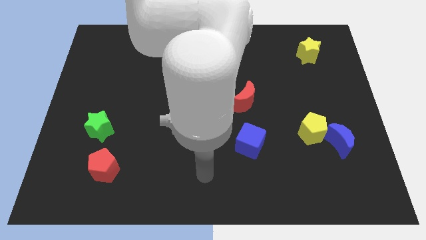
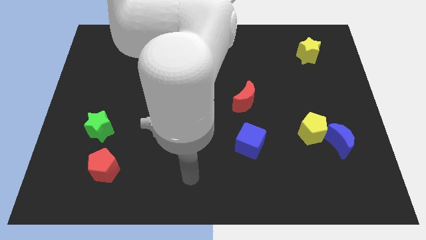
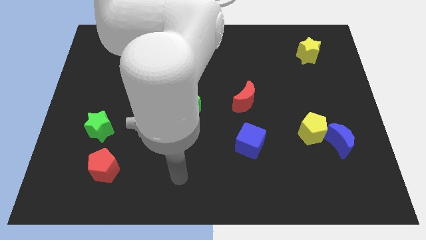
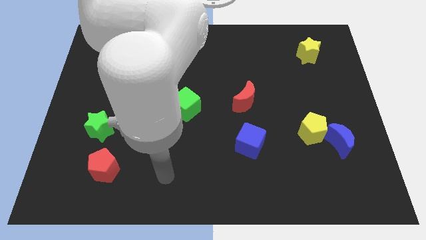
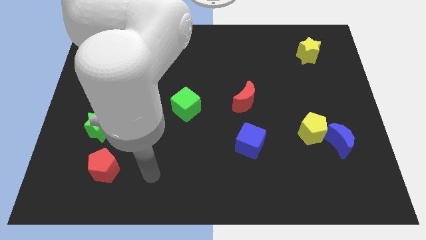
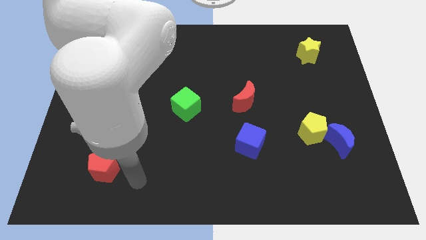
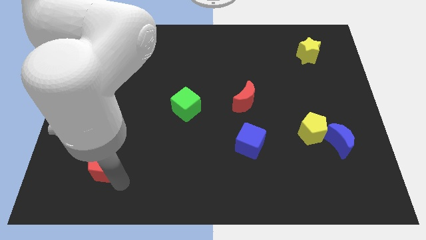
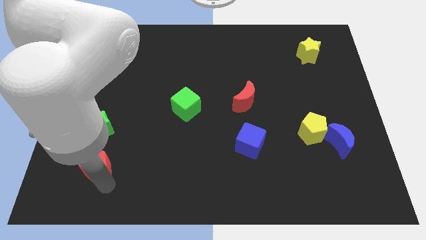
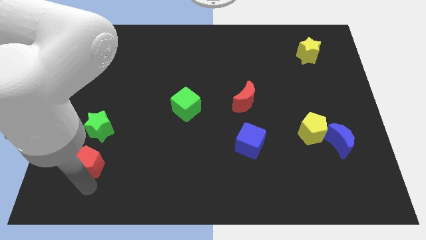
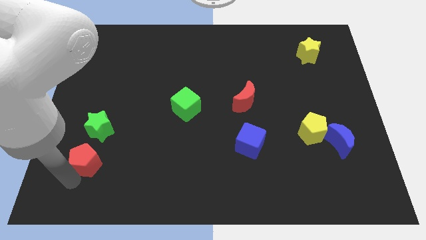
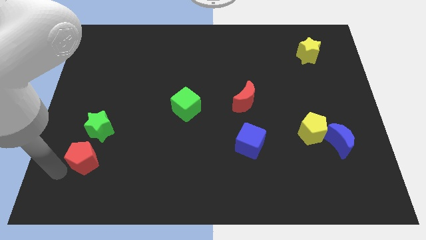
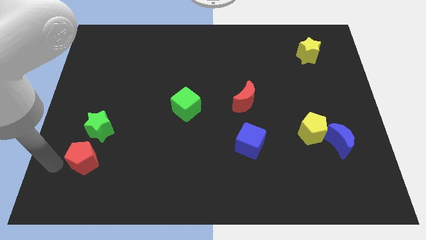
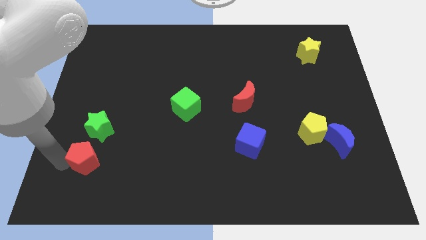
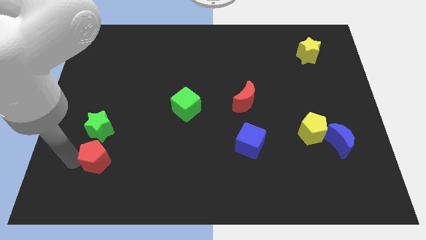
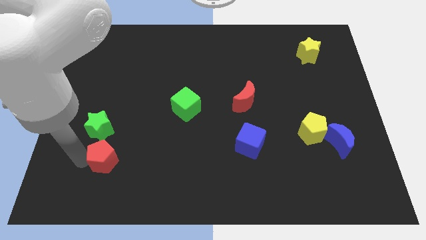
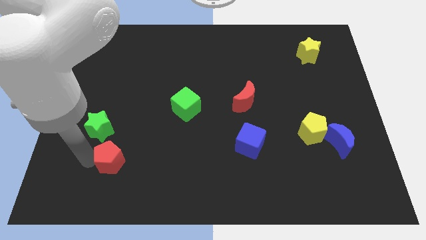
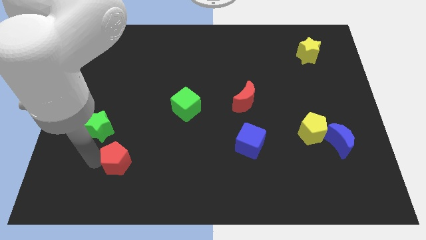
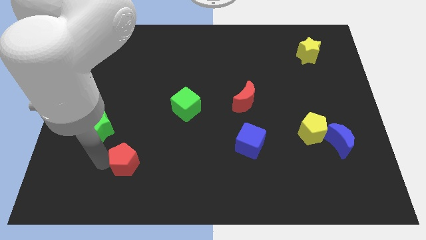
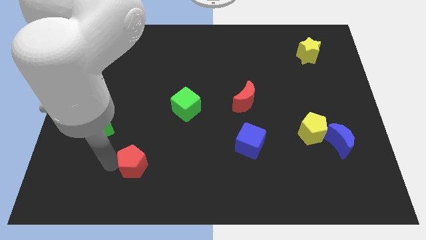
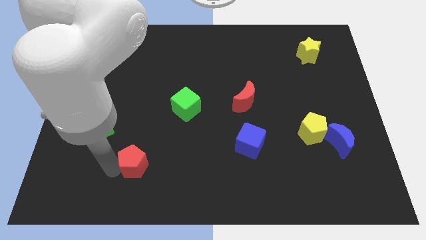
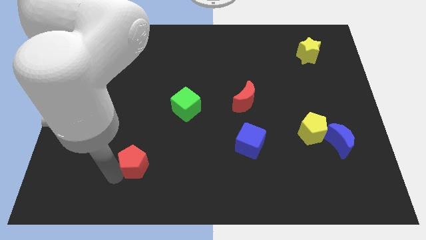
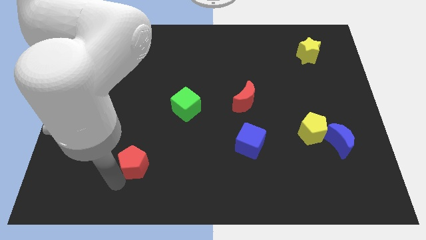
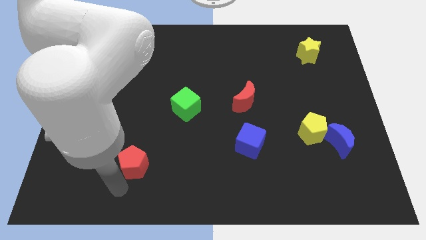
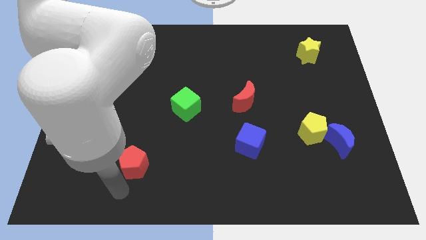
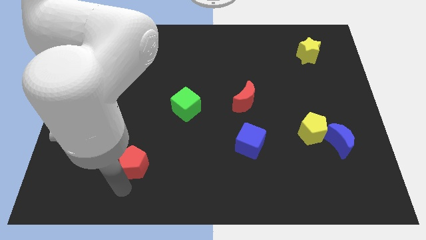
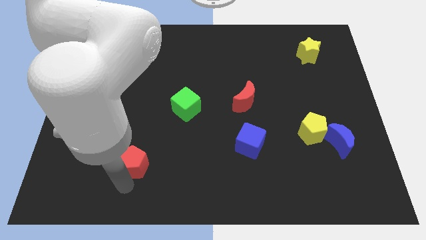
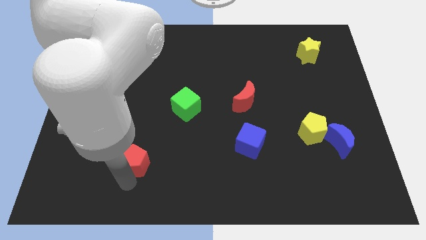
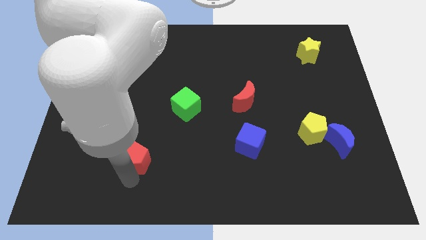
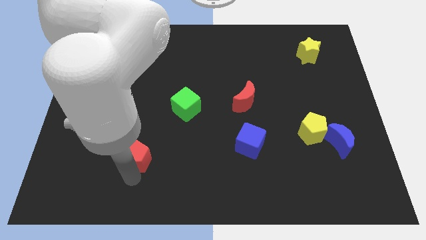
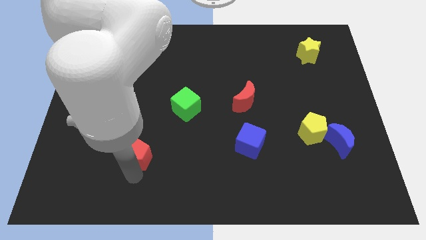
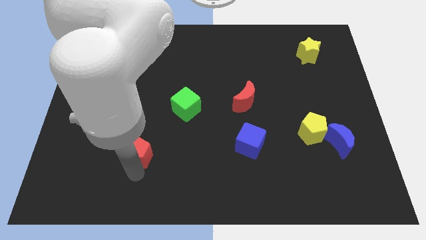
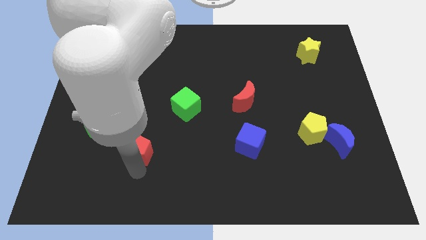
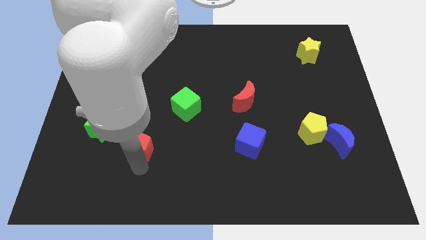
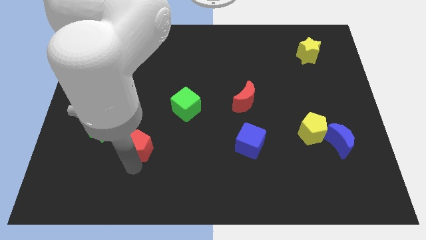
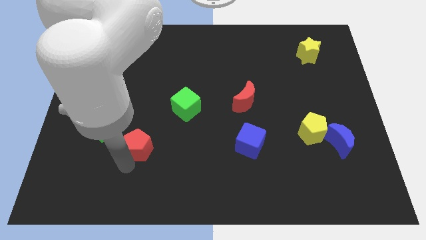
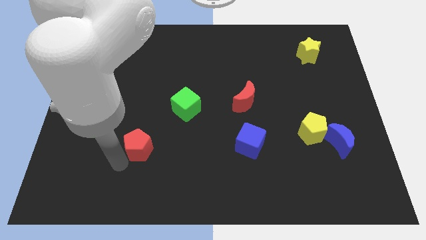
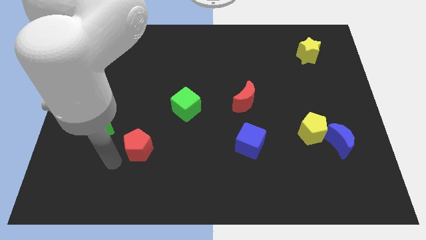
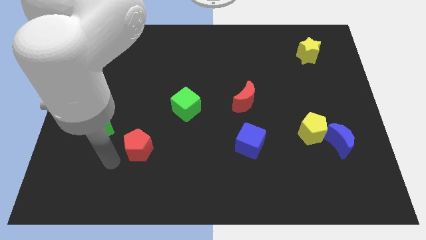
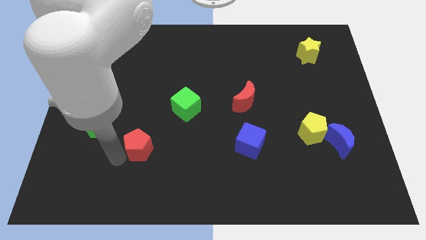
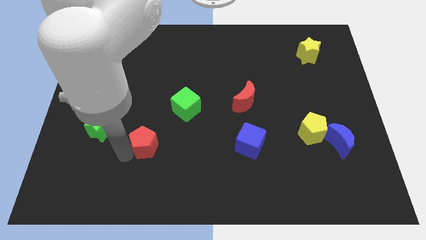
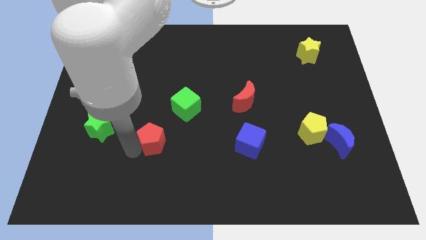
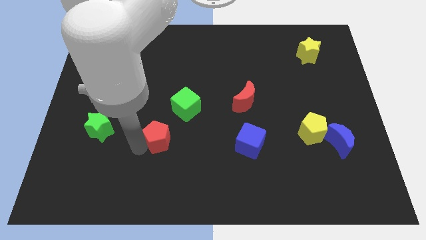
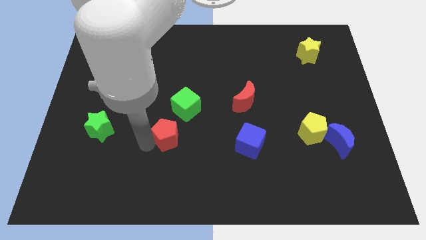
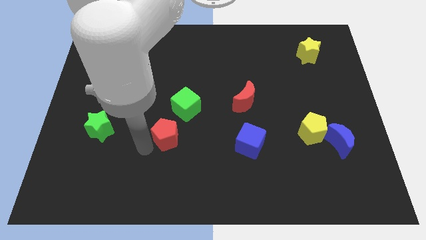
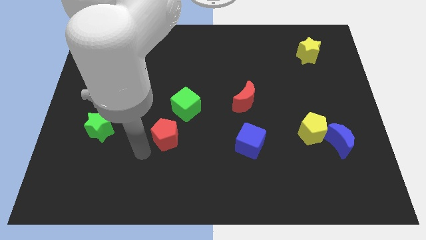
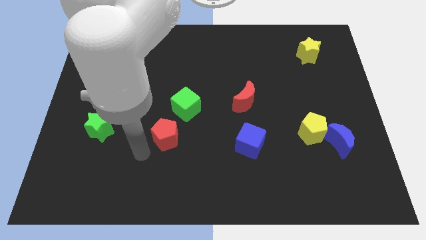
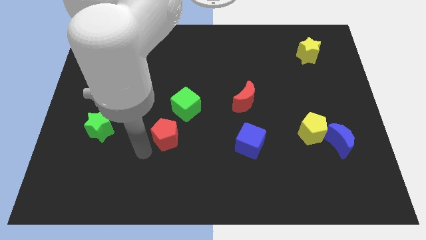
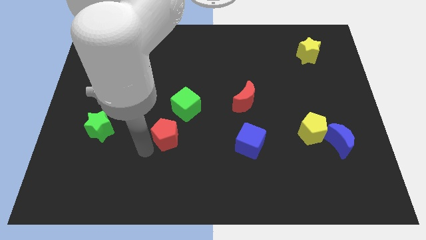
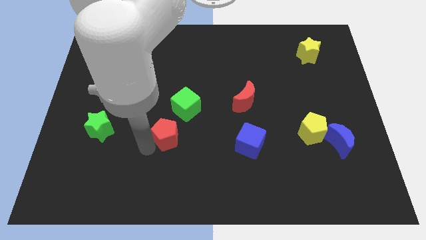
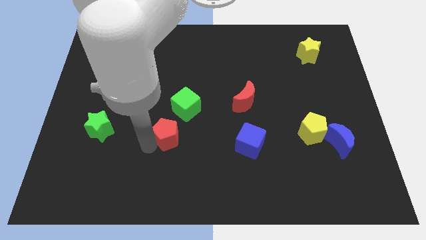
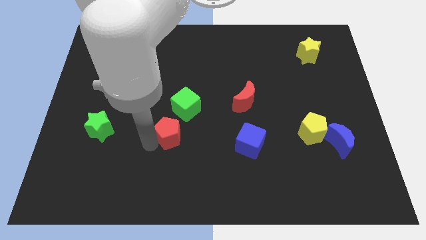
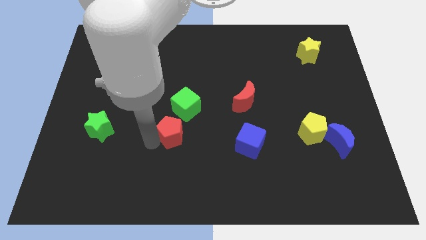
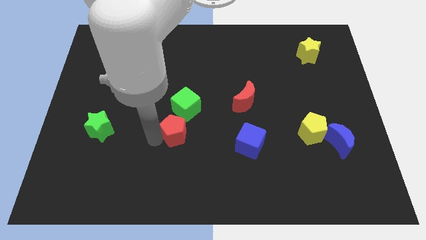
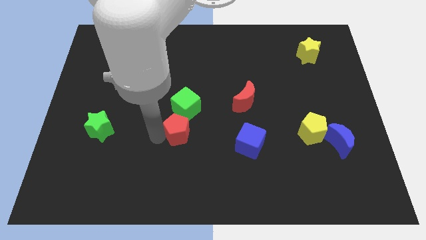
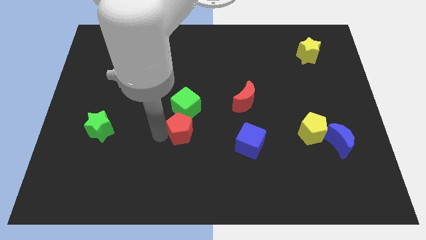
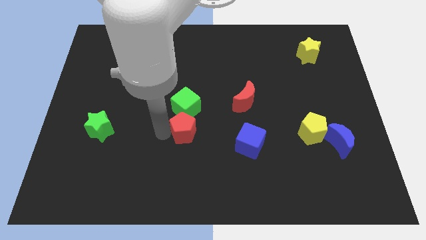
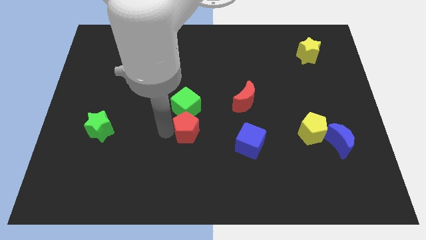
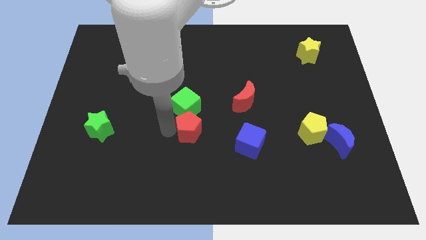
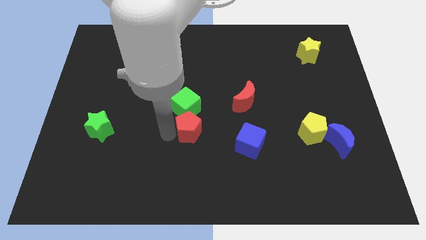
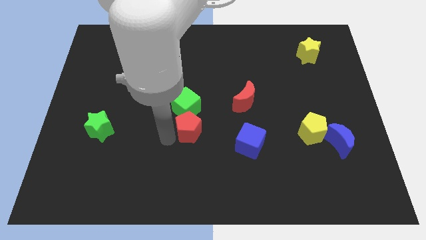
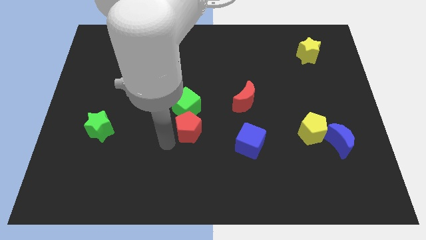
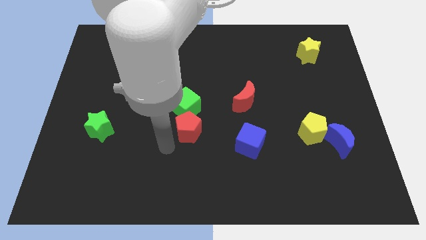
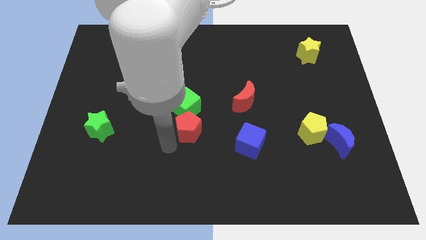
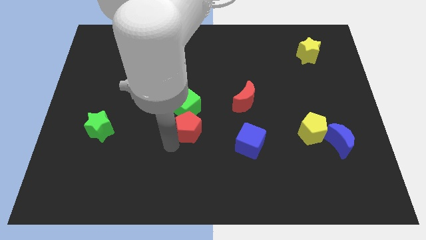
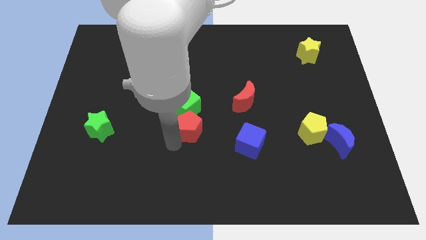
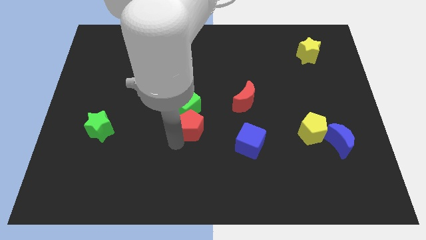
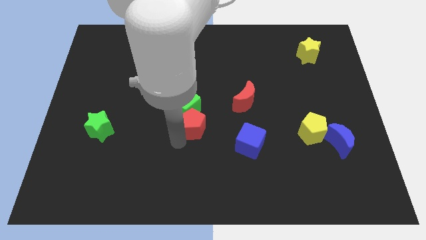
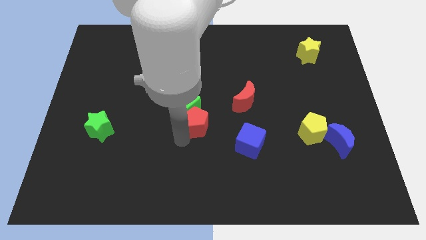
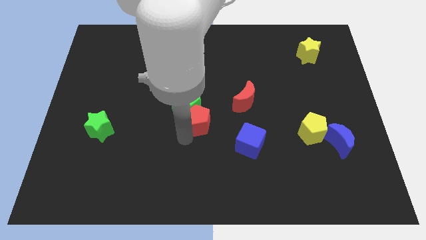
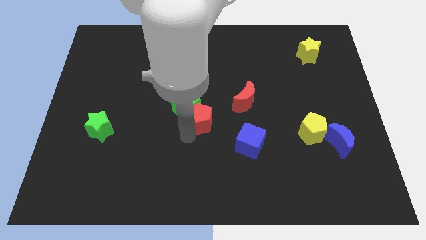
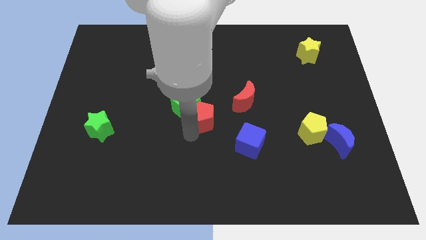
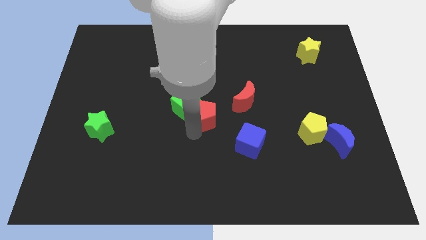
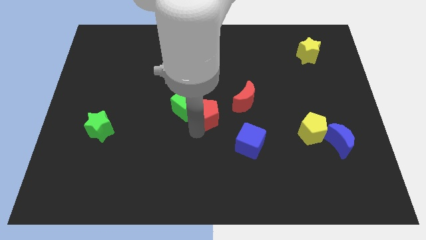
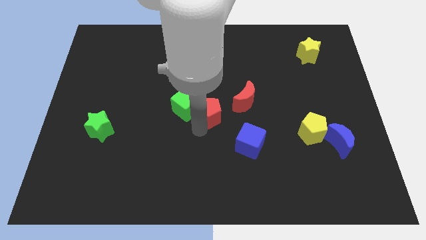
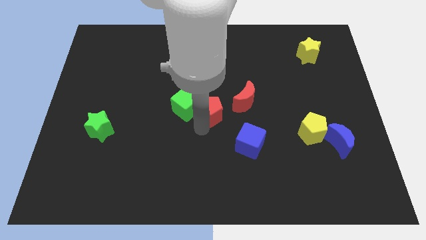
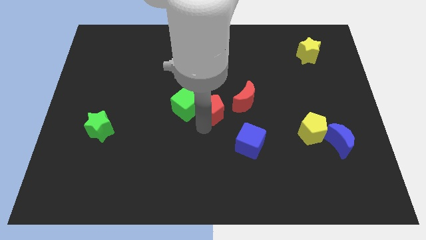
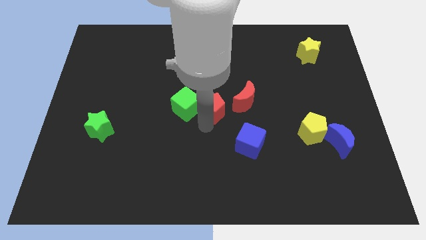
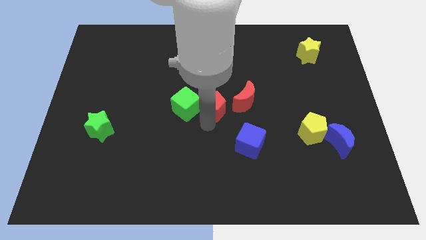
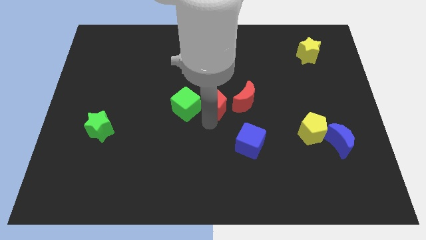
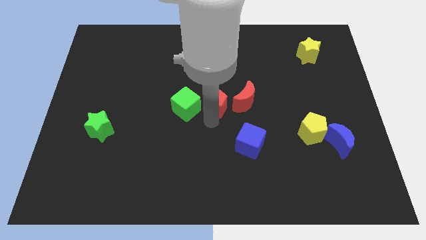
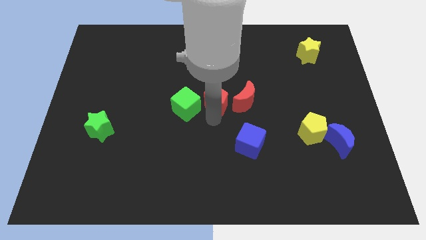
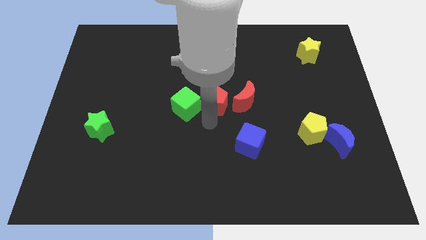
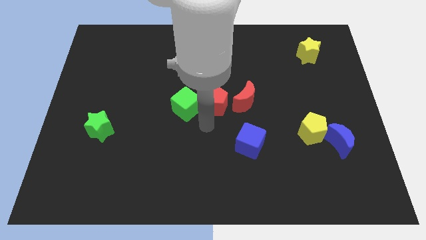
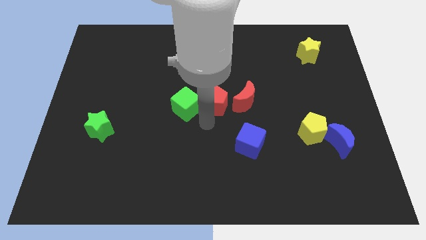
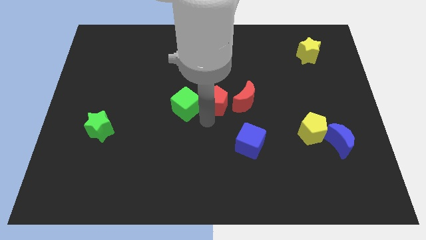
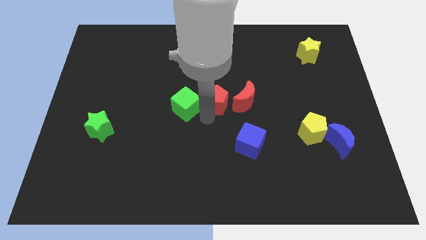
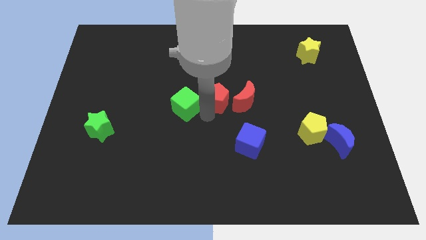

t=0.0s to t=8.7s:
move the red pentagon to the top left of the red moon
